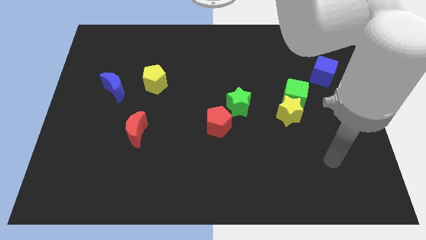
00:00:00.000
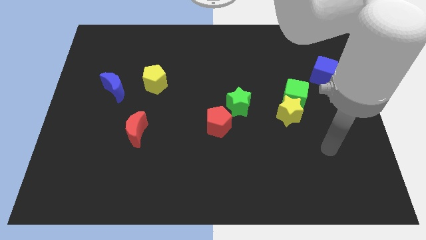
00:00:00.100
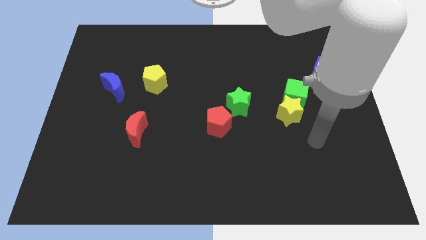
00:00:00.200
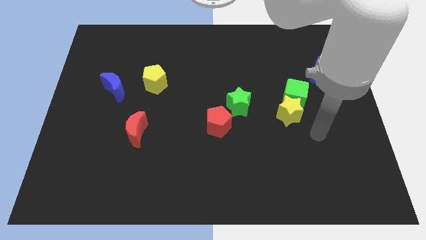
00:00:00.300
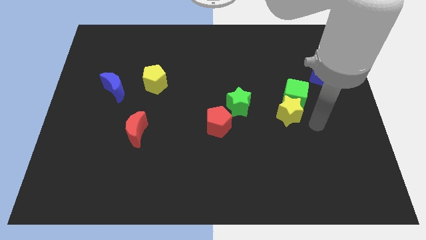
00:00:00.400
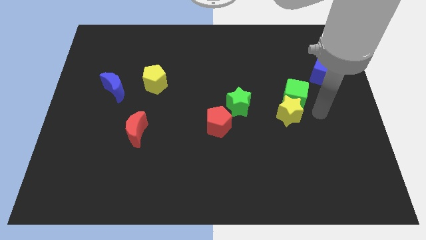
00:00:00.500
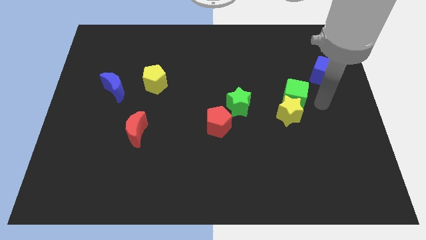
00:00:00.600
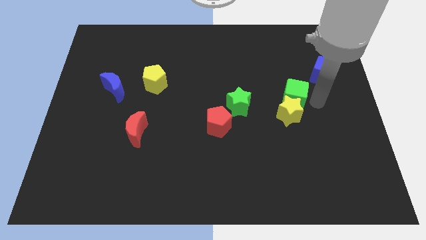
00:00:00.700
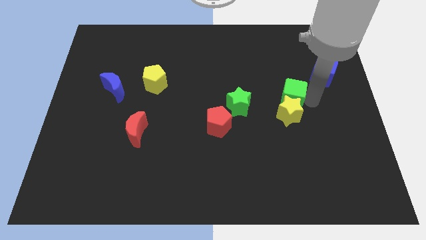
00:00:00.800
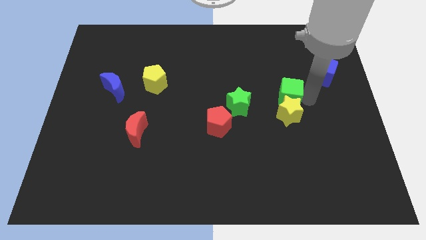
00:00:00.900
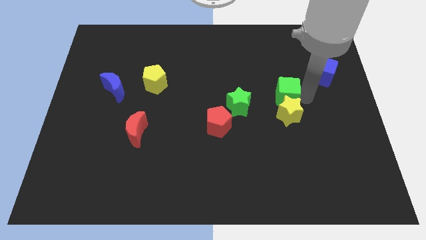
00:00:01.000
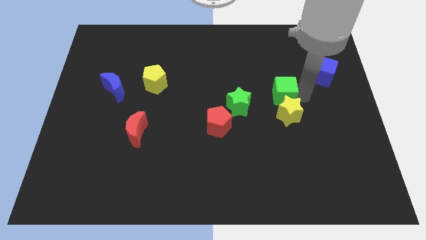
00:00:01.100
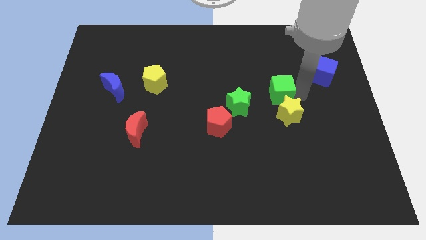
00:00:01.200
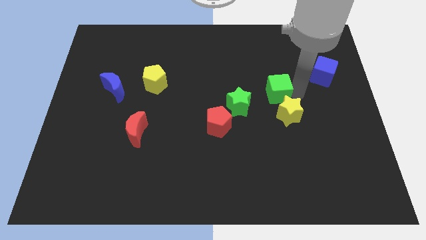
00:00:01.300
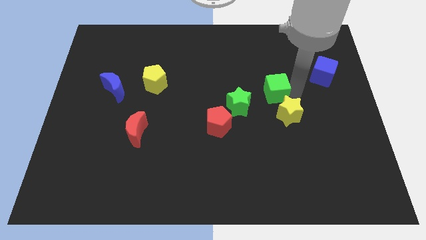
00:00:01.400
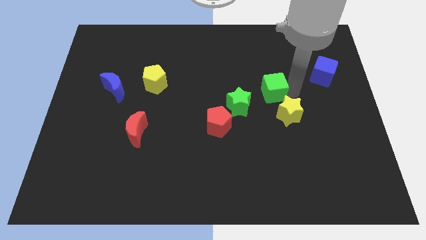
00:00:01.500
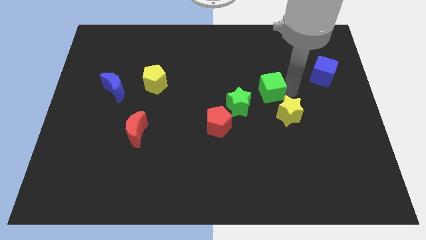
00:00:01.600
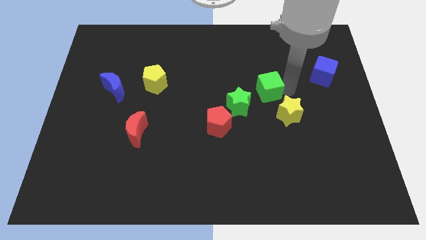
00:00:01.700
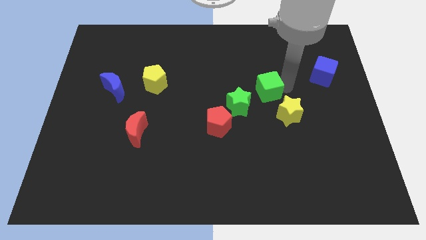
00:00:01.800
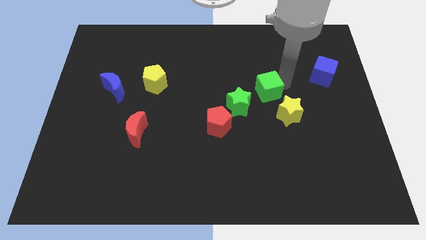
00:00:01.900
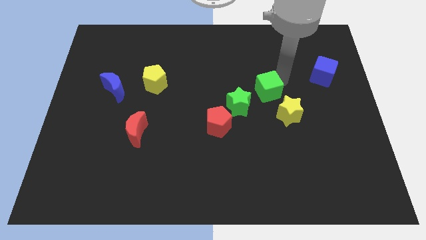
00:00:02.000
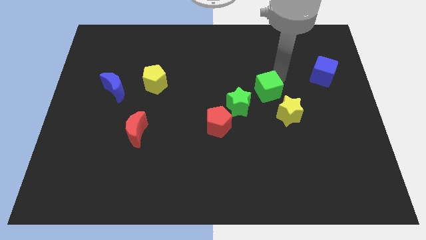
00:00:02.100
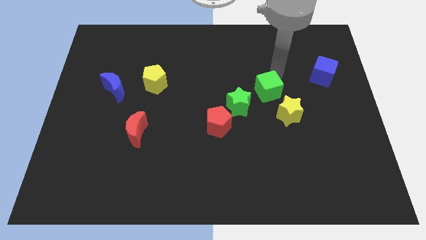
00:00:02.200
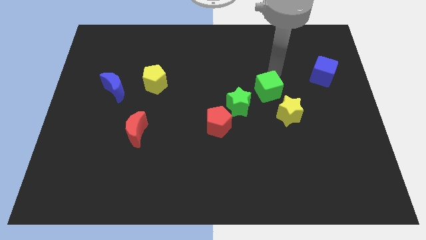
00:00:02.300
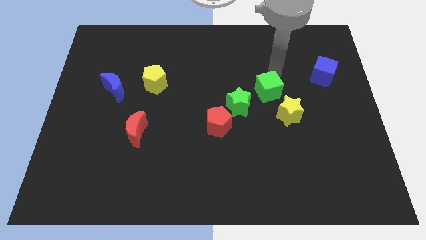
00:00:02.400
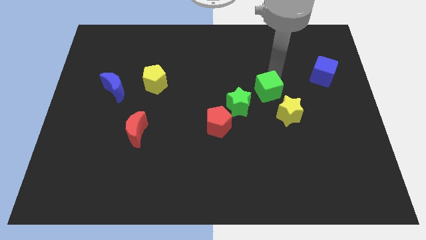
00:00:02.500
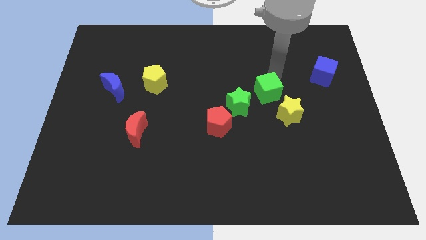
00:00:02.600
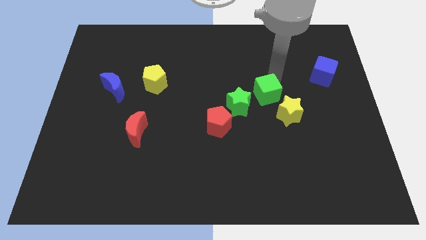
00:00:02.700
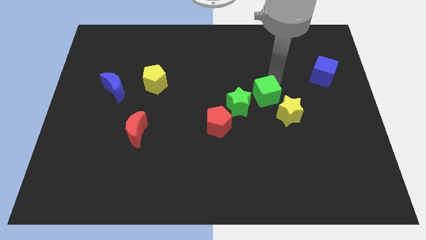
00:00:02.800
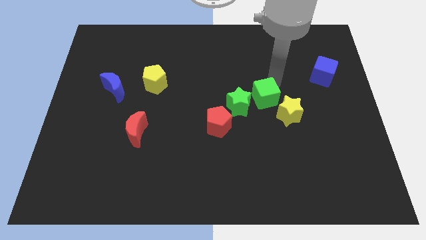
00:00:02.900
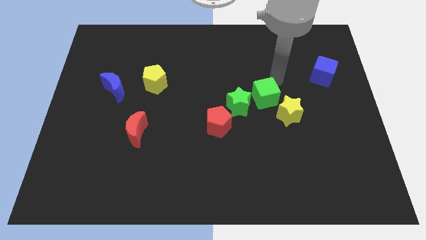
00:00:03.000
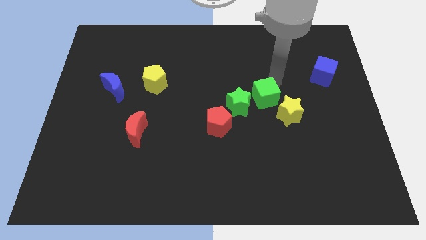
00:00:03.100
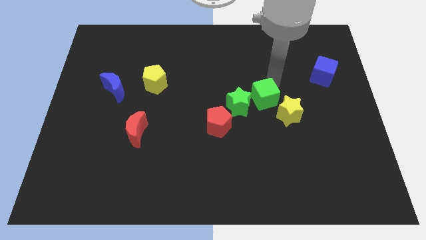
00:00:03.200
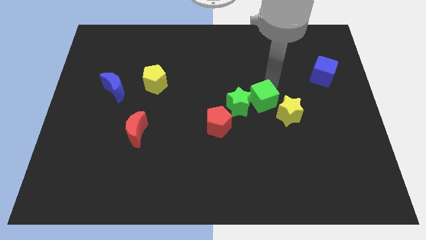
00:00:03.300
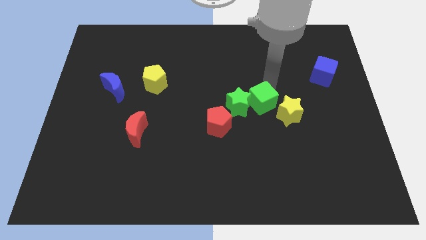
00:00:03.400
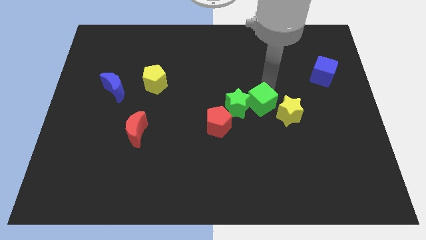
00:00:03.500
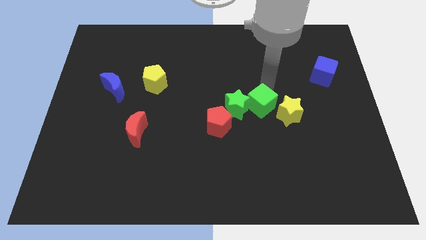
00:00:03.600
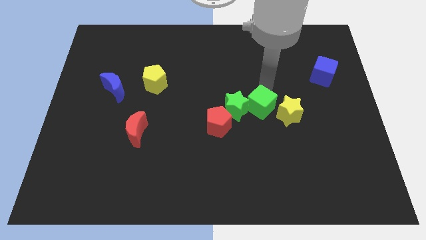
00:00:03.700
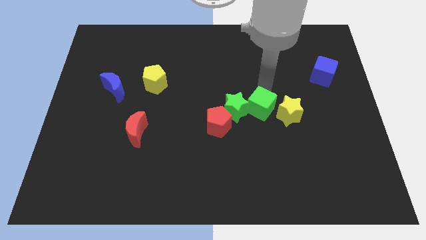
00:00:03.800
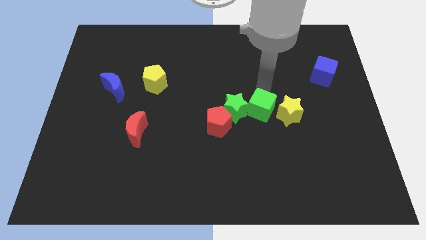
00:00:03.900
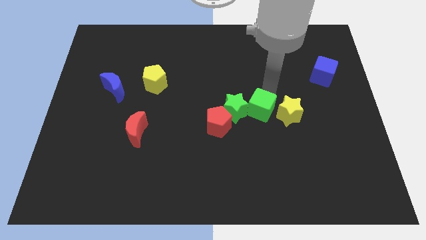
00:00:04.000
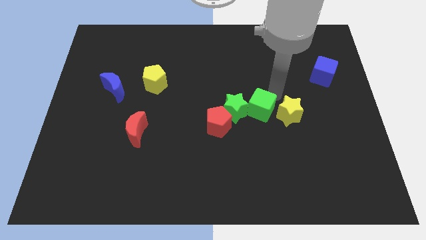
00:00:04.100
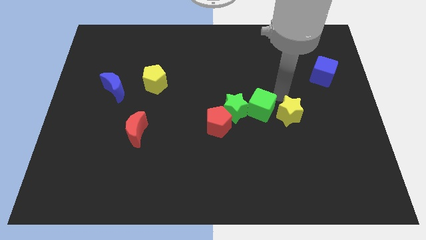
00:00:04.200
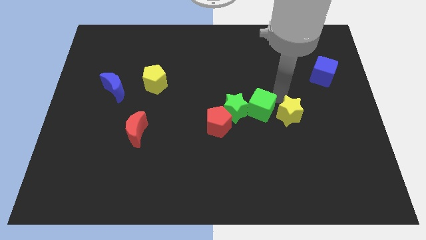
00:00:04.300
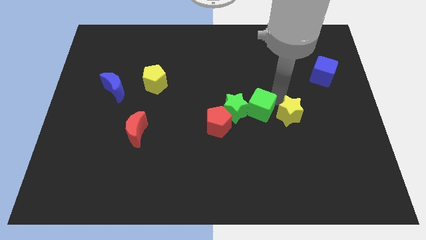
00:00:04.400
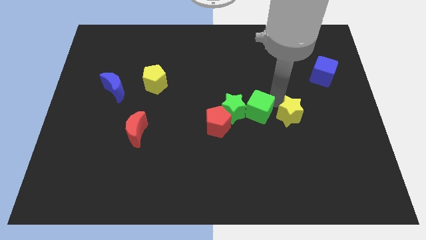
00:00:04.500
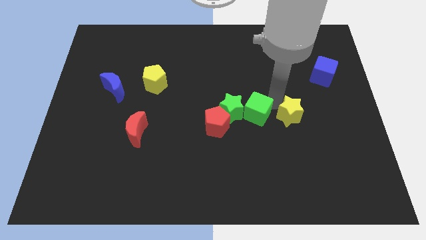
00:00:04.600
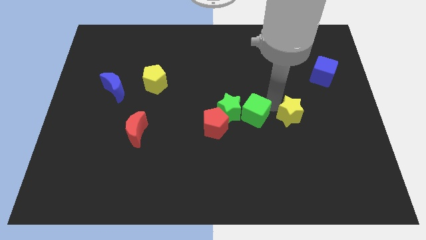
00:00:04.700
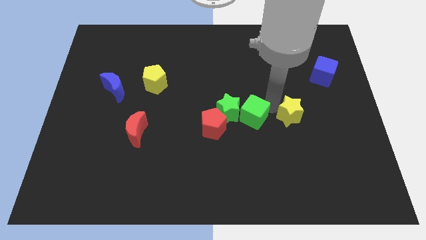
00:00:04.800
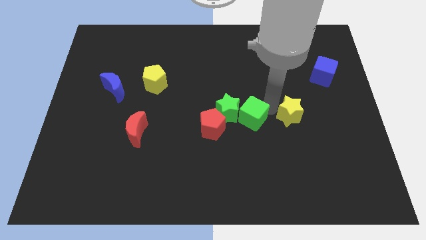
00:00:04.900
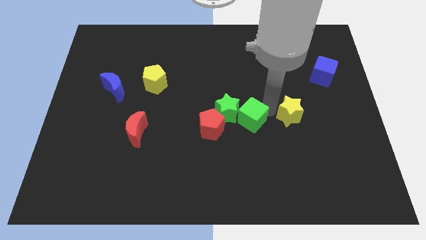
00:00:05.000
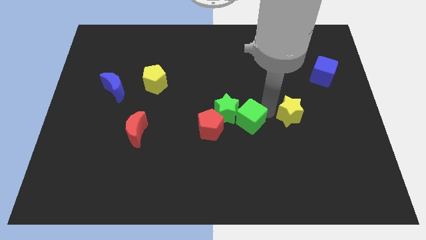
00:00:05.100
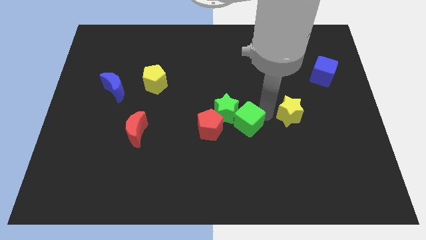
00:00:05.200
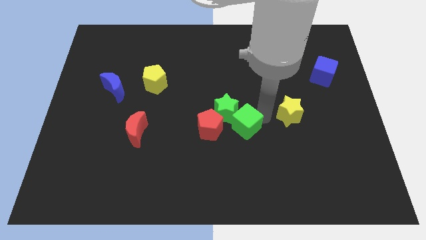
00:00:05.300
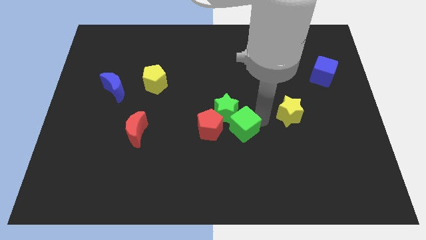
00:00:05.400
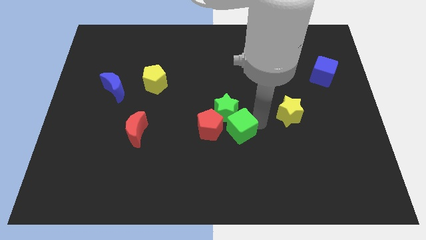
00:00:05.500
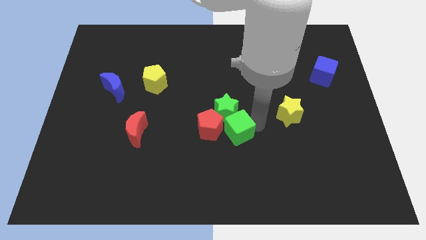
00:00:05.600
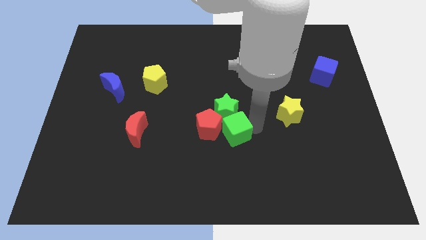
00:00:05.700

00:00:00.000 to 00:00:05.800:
put the green cube to the red pentagon

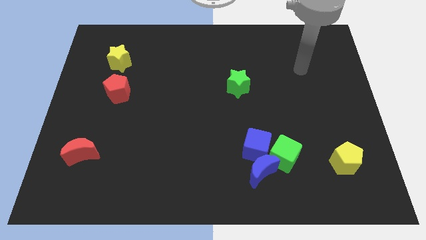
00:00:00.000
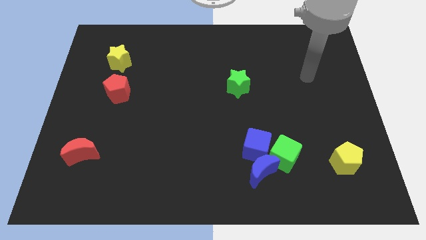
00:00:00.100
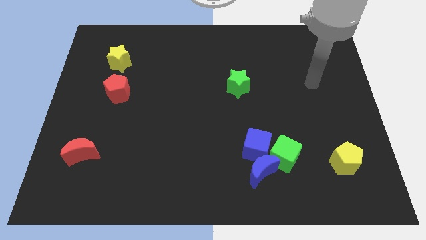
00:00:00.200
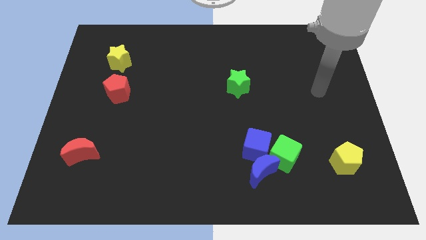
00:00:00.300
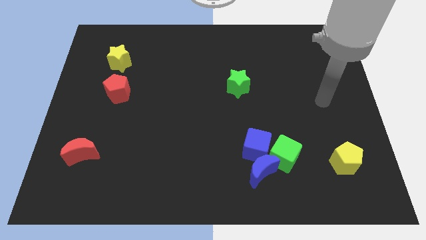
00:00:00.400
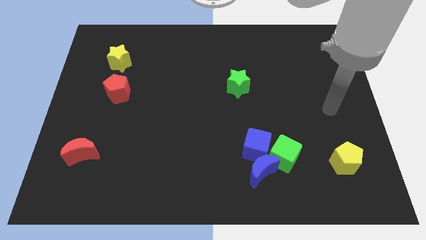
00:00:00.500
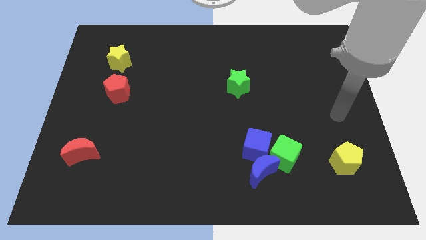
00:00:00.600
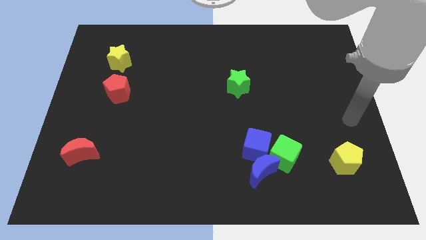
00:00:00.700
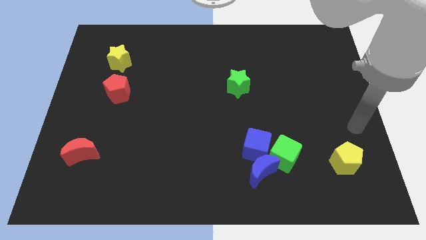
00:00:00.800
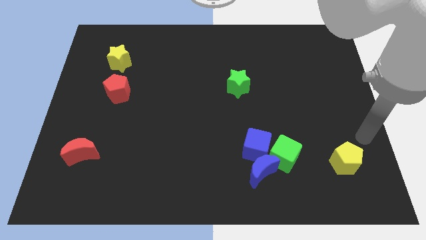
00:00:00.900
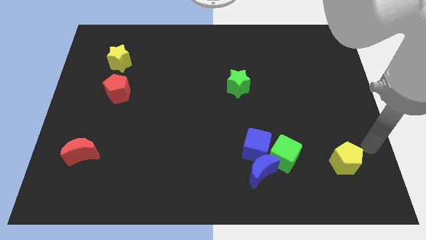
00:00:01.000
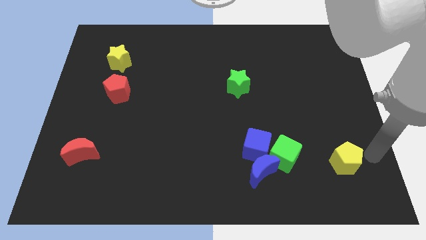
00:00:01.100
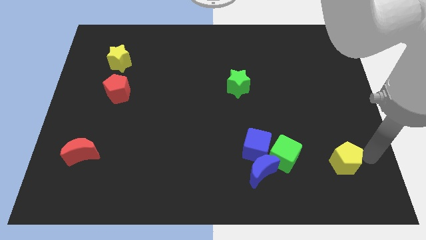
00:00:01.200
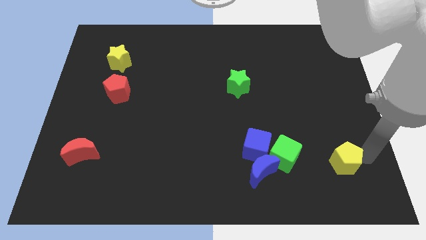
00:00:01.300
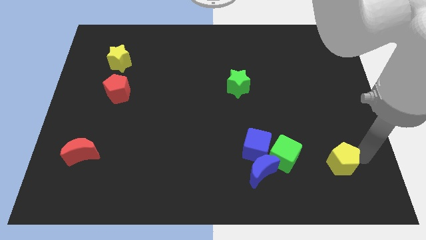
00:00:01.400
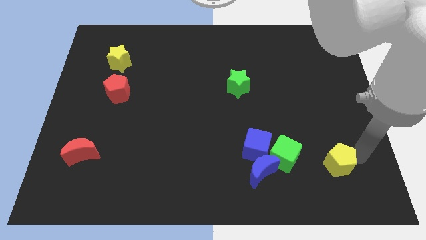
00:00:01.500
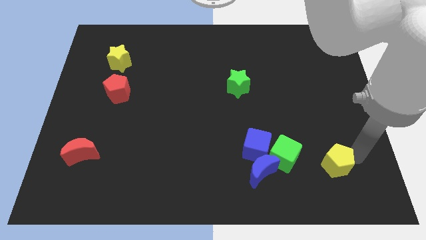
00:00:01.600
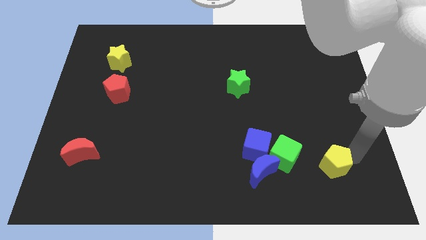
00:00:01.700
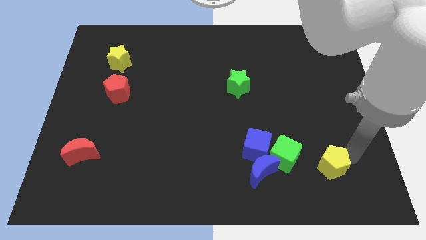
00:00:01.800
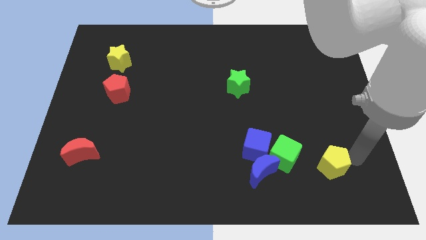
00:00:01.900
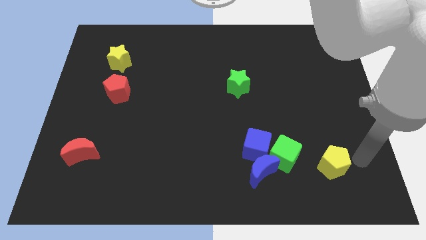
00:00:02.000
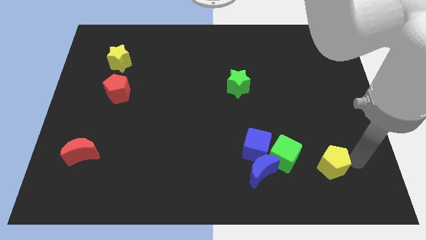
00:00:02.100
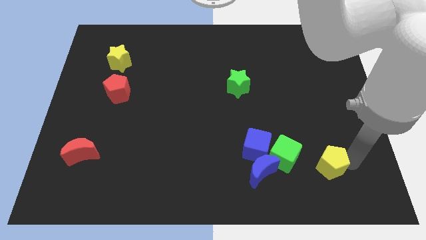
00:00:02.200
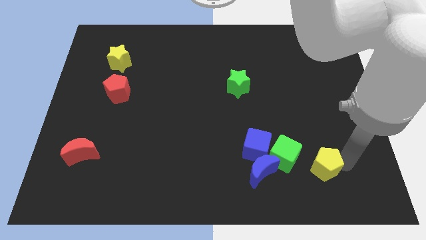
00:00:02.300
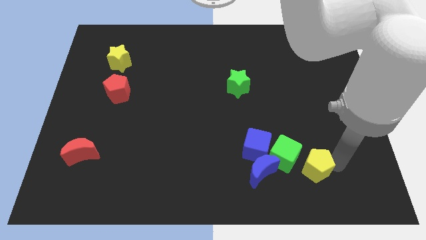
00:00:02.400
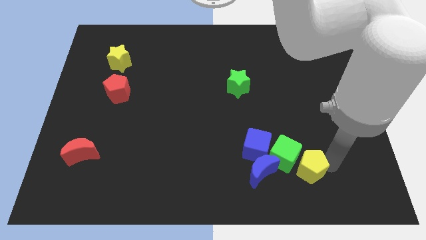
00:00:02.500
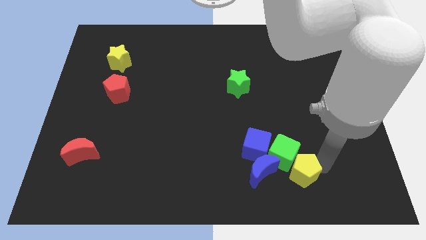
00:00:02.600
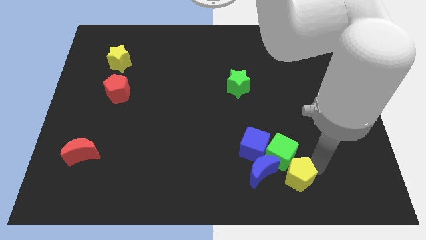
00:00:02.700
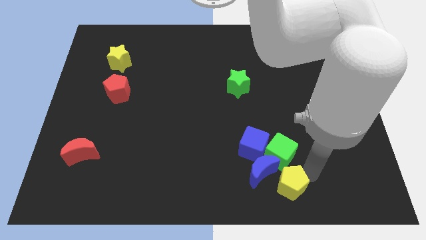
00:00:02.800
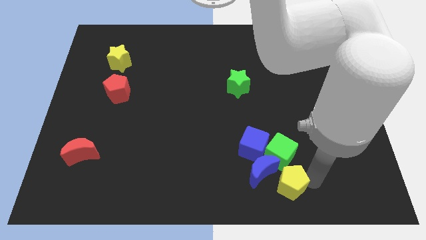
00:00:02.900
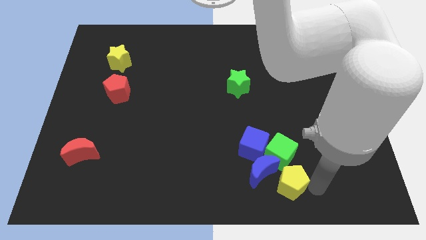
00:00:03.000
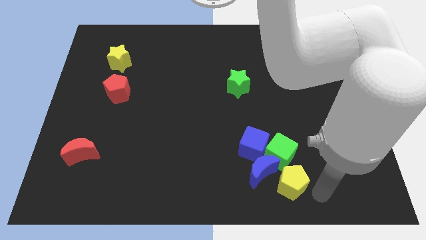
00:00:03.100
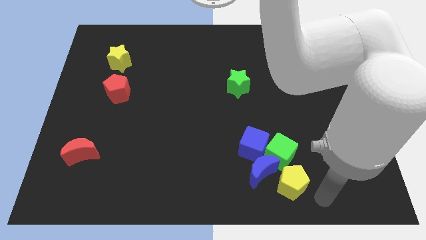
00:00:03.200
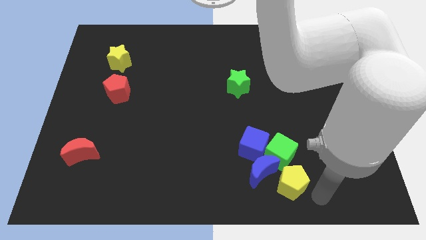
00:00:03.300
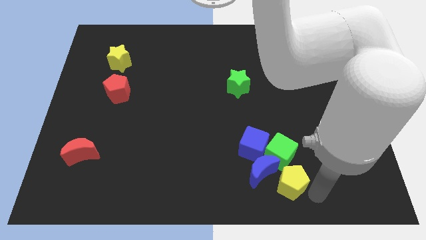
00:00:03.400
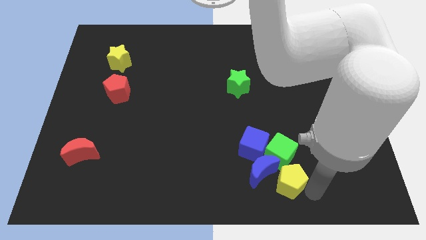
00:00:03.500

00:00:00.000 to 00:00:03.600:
slide the yellow pentagon towards the blue moon
